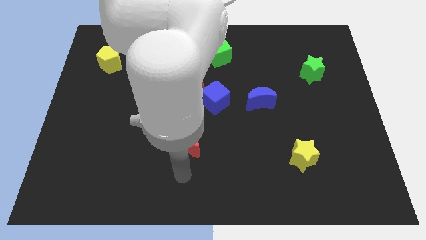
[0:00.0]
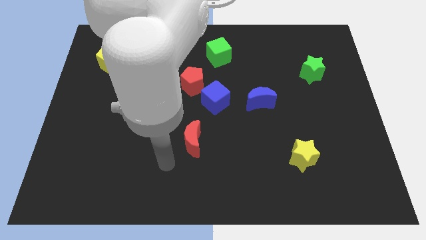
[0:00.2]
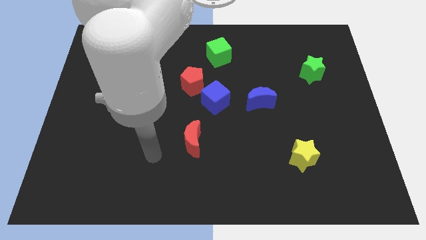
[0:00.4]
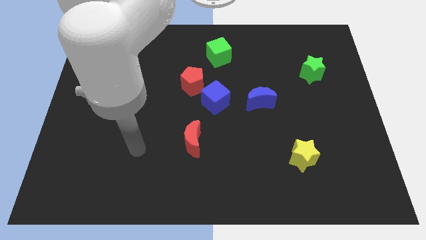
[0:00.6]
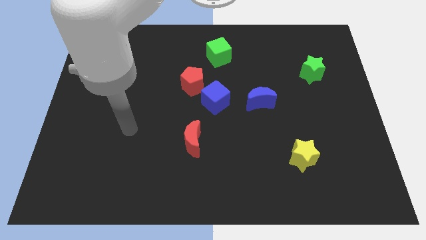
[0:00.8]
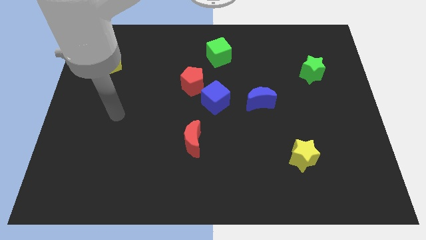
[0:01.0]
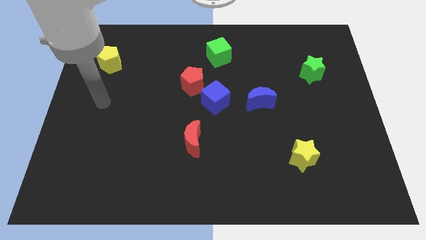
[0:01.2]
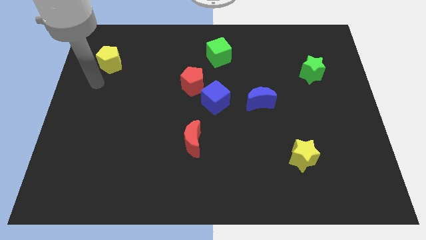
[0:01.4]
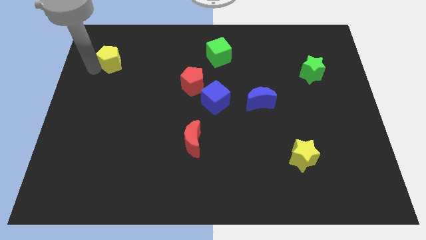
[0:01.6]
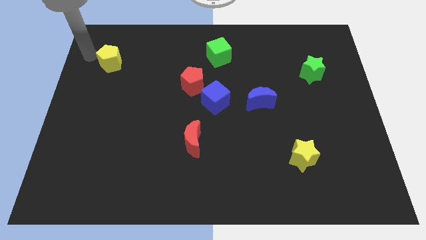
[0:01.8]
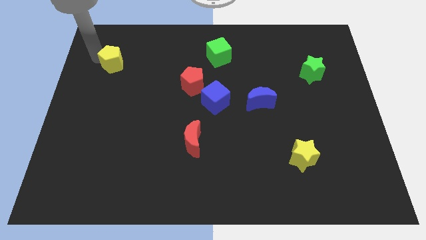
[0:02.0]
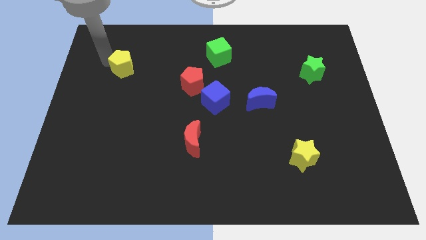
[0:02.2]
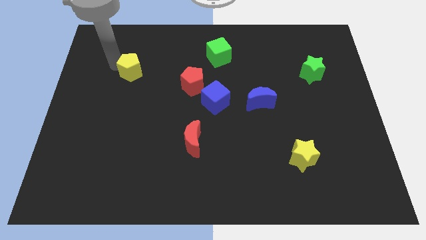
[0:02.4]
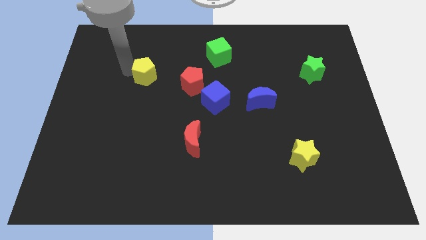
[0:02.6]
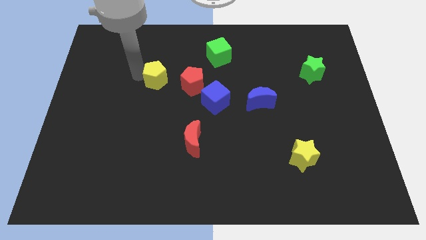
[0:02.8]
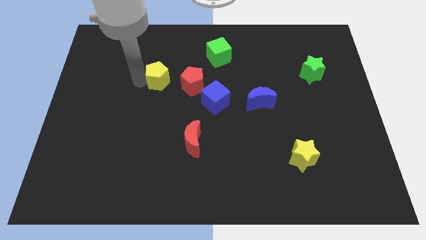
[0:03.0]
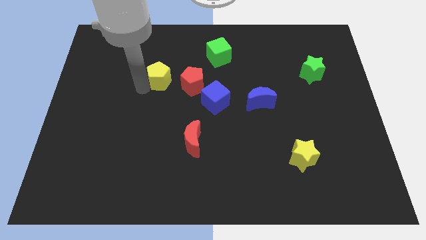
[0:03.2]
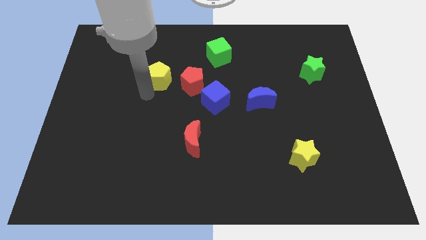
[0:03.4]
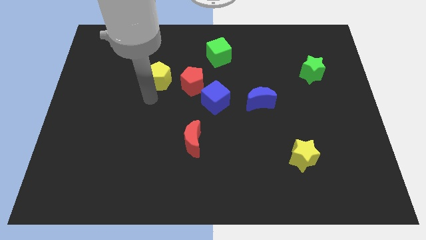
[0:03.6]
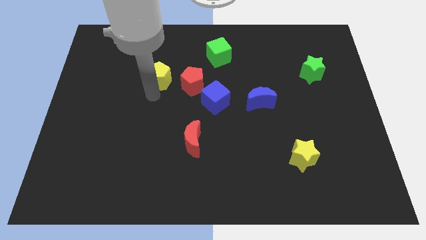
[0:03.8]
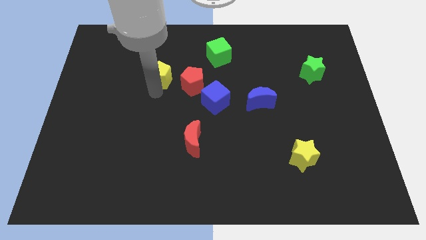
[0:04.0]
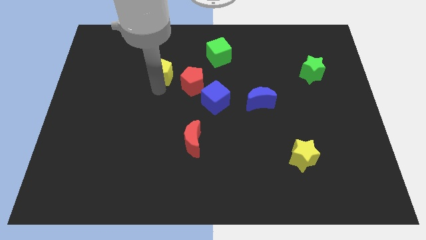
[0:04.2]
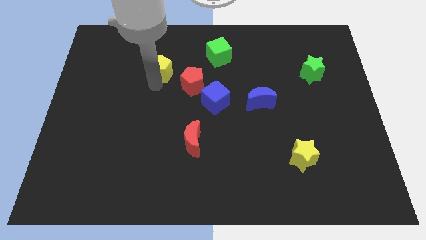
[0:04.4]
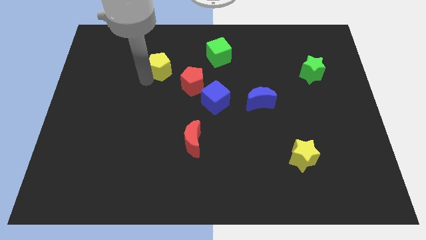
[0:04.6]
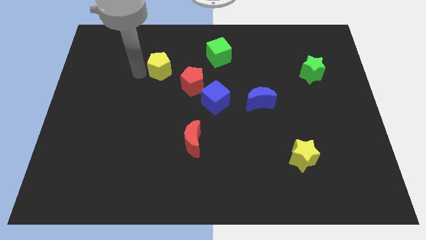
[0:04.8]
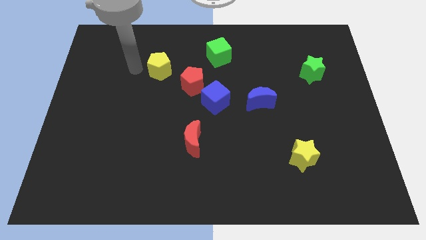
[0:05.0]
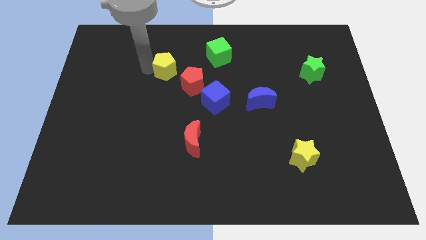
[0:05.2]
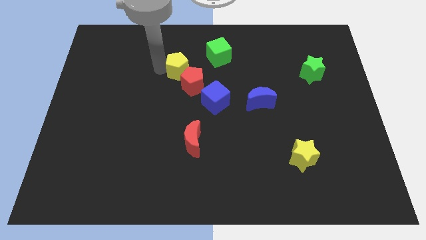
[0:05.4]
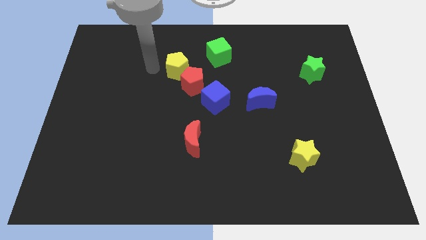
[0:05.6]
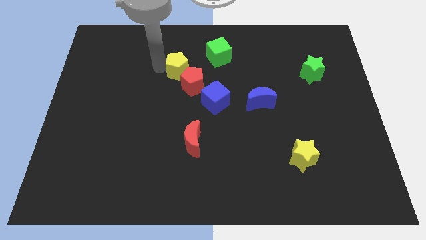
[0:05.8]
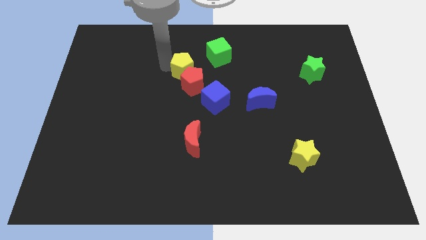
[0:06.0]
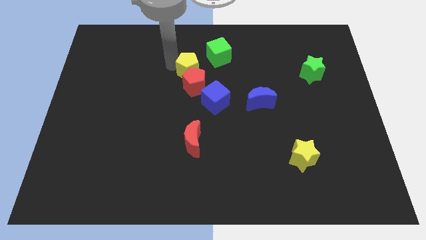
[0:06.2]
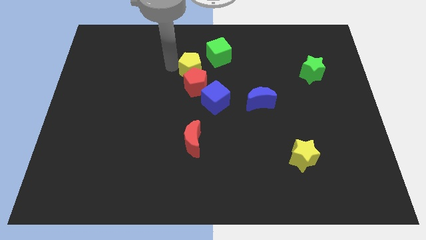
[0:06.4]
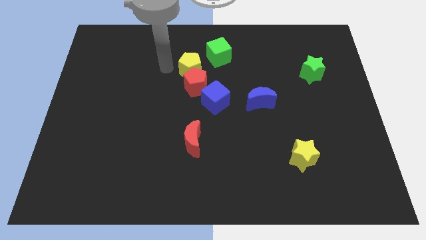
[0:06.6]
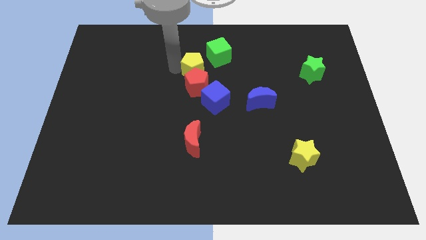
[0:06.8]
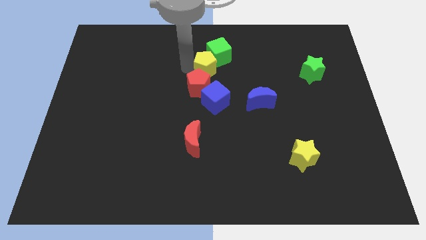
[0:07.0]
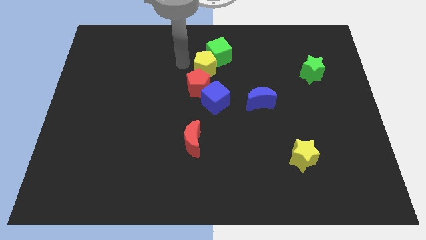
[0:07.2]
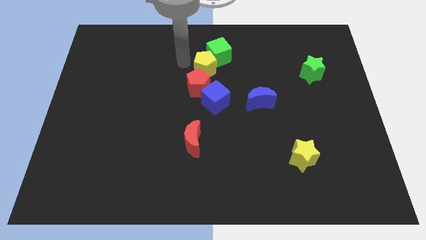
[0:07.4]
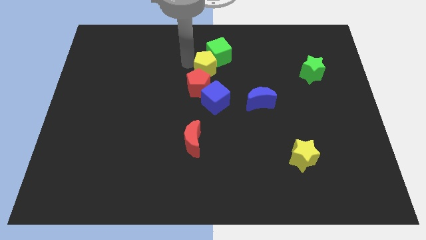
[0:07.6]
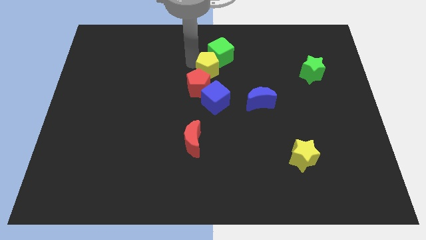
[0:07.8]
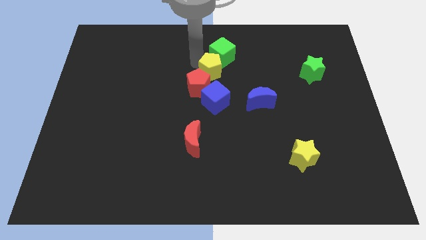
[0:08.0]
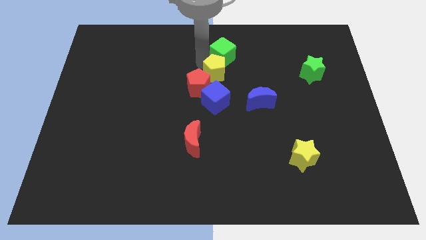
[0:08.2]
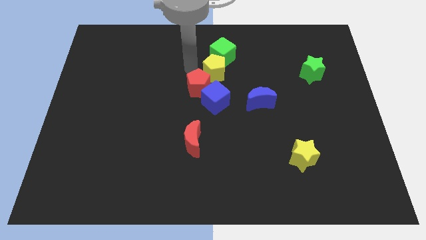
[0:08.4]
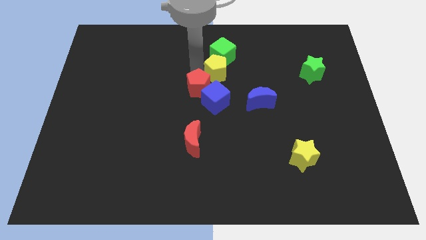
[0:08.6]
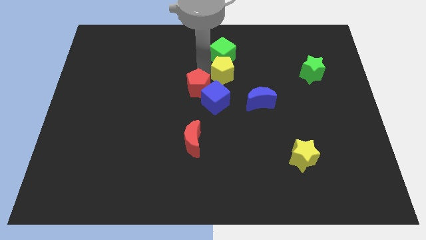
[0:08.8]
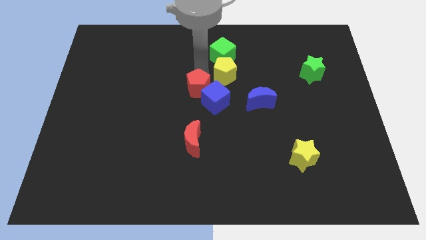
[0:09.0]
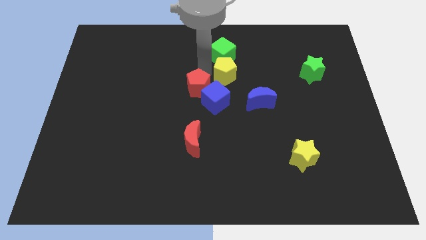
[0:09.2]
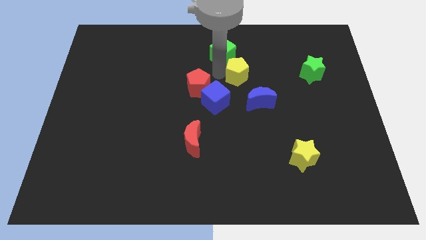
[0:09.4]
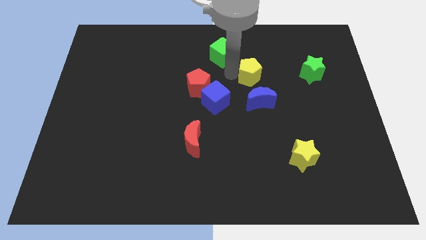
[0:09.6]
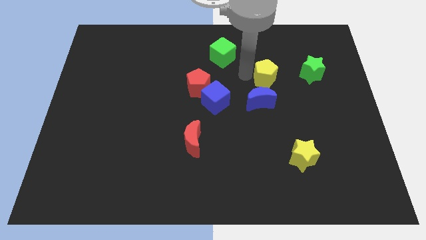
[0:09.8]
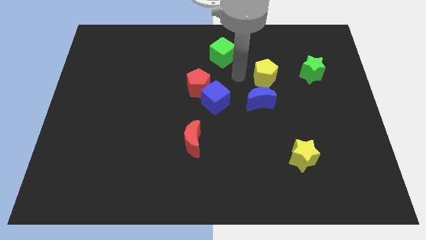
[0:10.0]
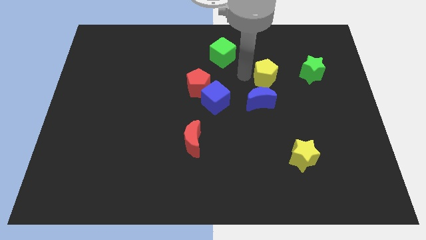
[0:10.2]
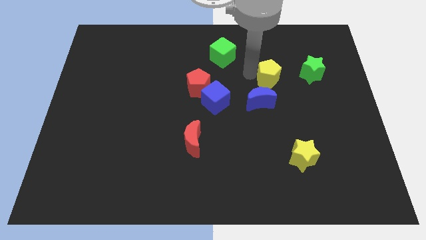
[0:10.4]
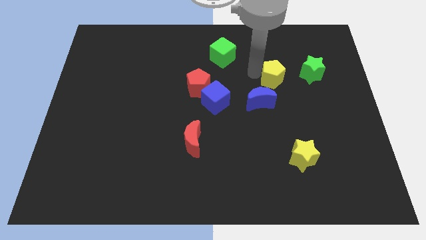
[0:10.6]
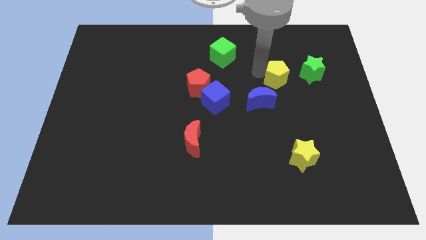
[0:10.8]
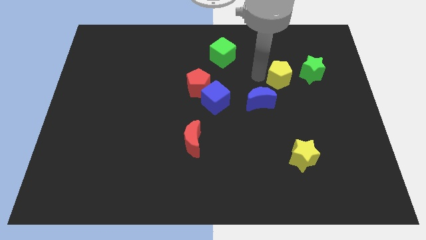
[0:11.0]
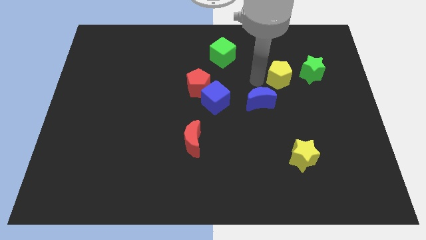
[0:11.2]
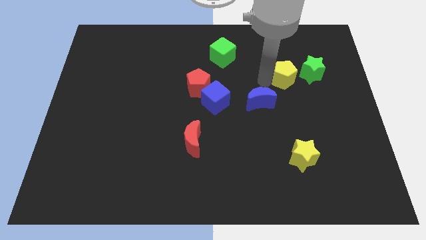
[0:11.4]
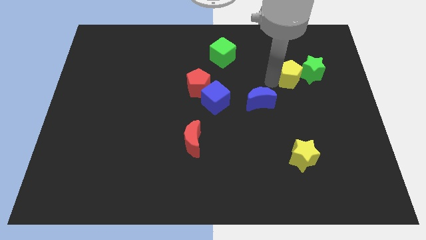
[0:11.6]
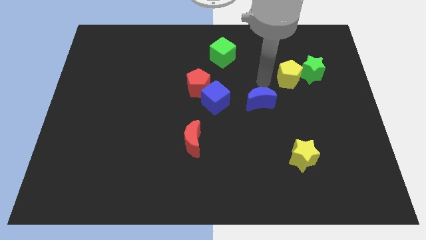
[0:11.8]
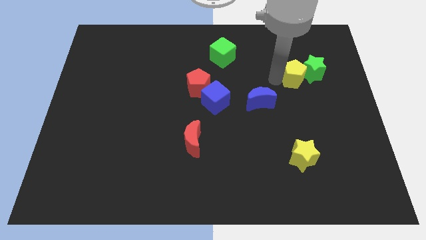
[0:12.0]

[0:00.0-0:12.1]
put the yellow pentagon towards the green star

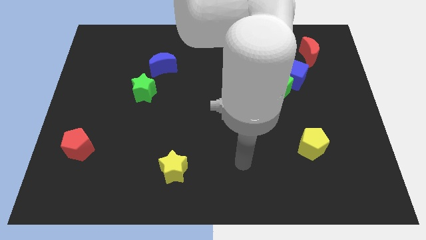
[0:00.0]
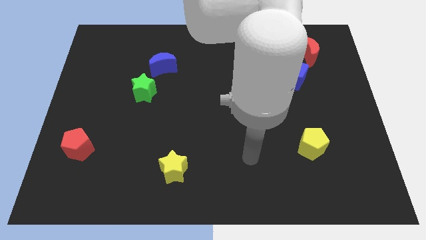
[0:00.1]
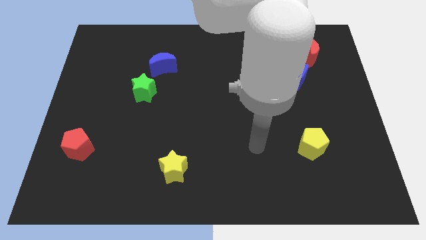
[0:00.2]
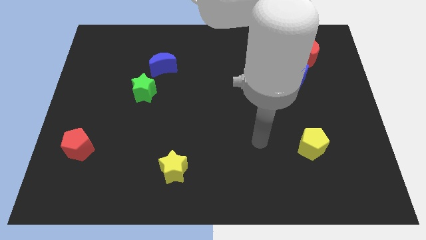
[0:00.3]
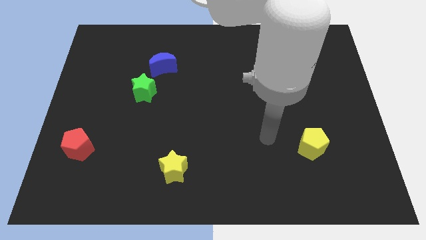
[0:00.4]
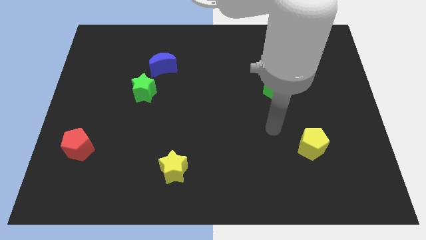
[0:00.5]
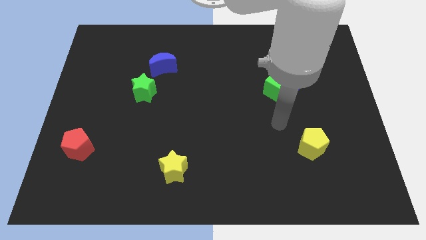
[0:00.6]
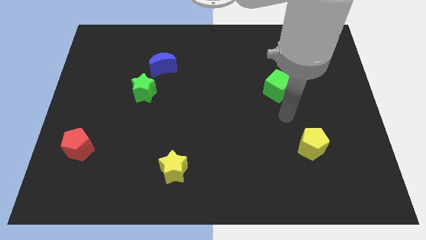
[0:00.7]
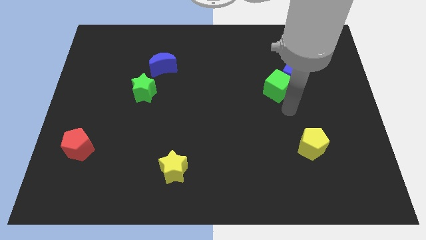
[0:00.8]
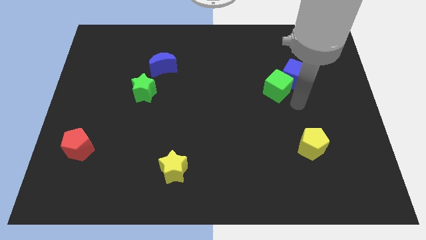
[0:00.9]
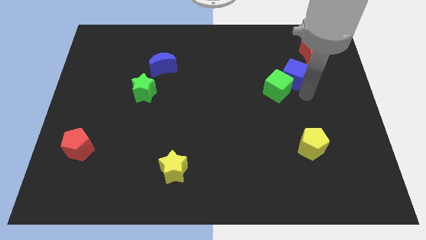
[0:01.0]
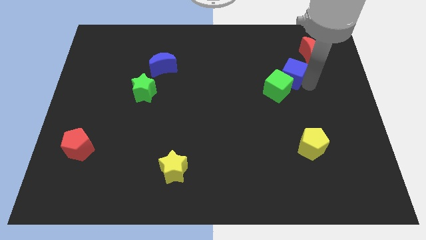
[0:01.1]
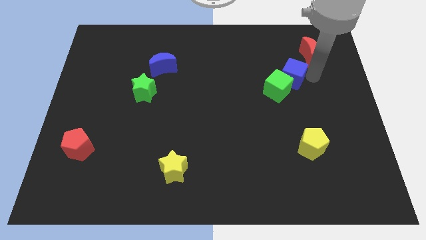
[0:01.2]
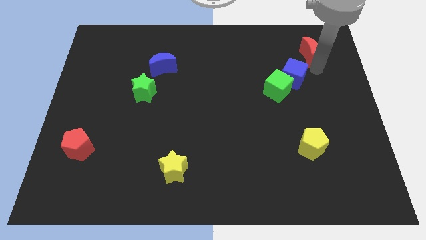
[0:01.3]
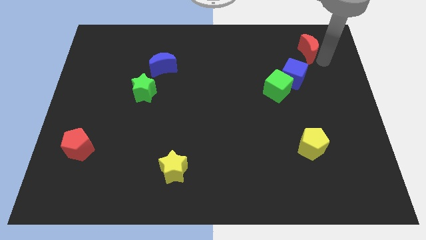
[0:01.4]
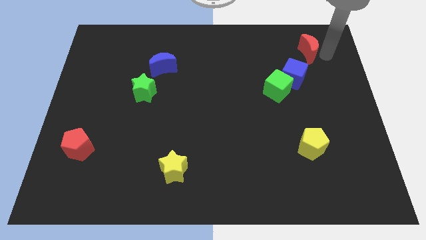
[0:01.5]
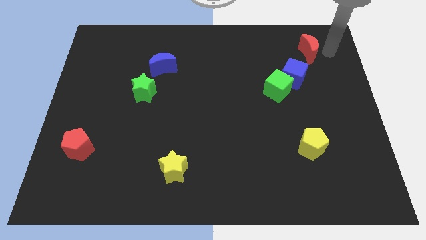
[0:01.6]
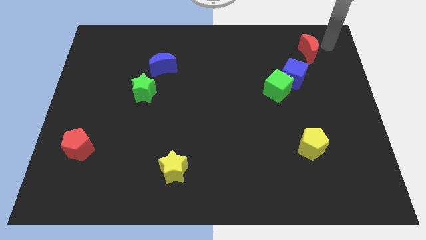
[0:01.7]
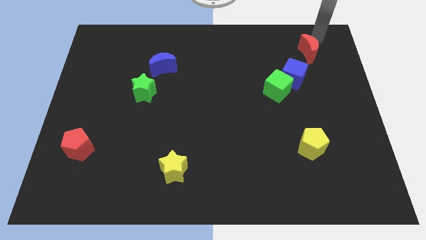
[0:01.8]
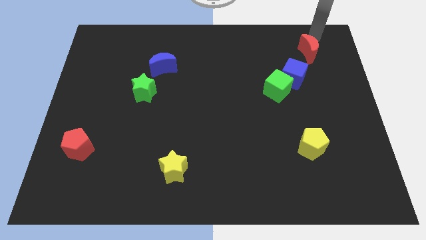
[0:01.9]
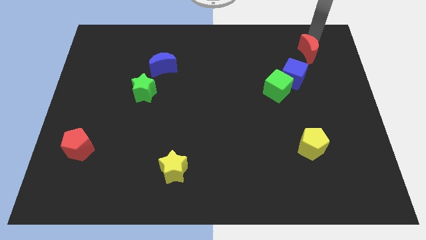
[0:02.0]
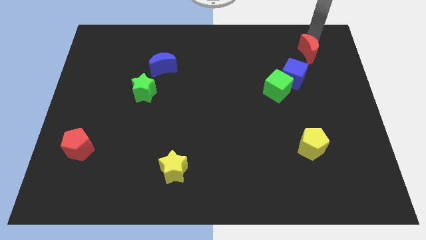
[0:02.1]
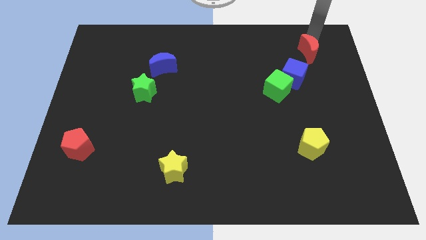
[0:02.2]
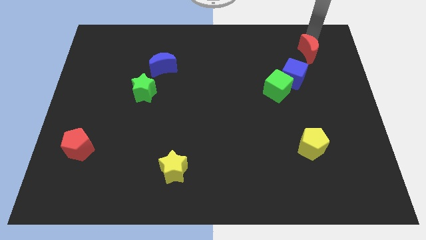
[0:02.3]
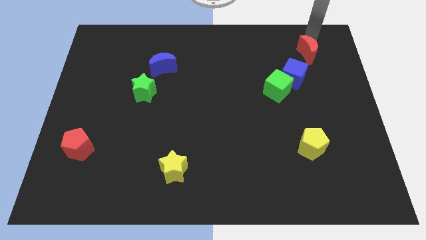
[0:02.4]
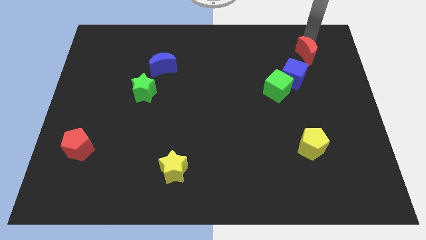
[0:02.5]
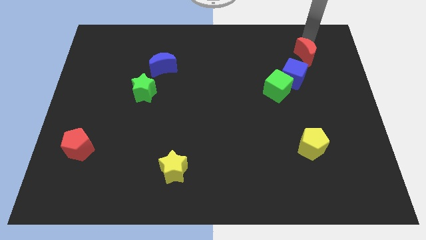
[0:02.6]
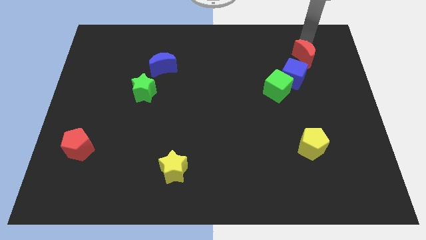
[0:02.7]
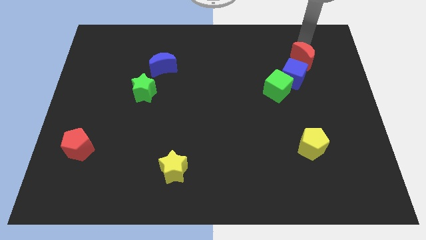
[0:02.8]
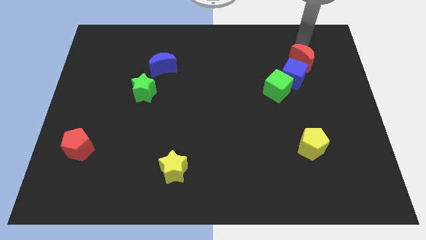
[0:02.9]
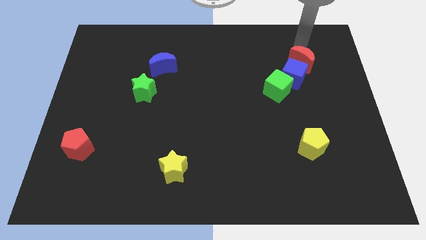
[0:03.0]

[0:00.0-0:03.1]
push the red moon towards the blue cube
